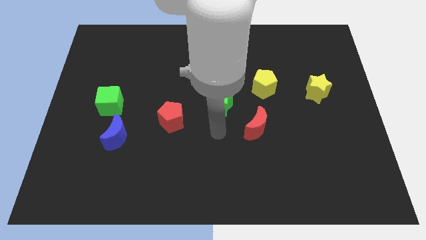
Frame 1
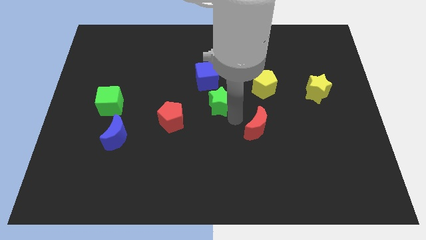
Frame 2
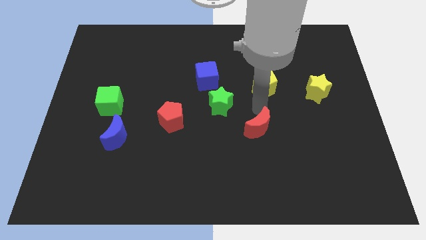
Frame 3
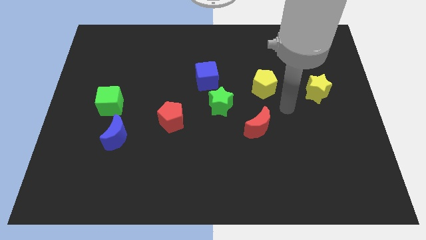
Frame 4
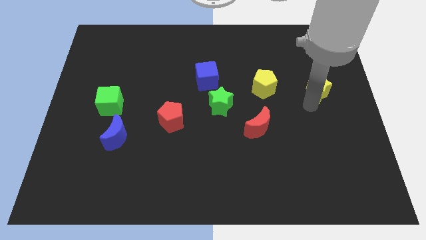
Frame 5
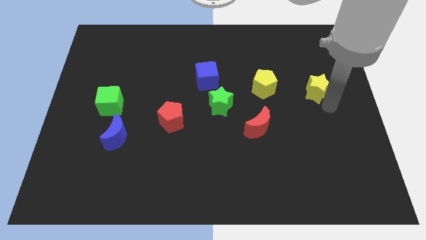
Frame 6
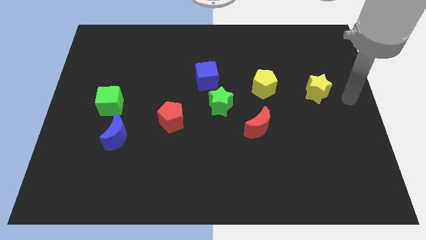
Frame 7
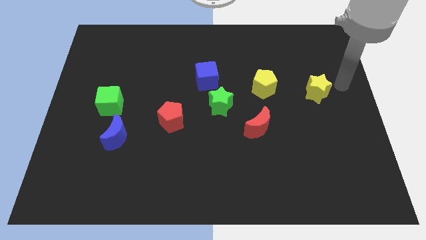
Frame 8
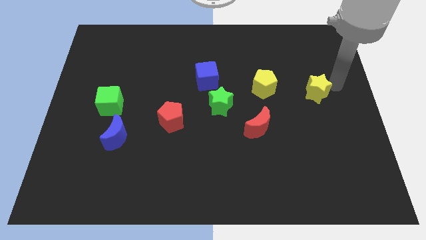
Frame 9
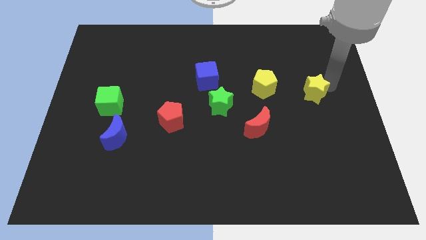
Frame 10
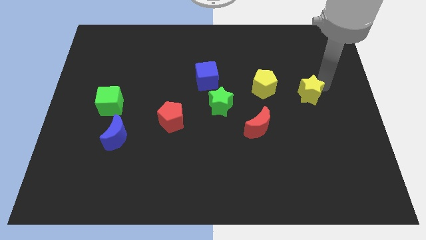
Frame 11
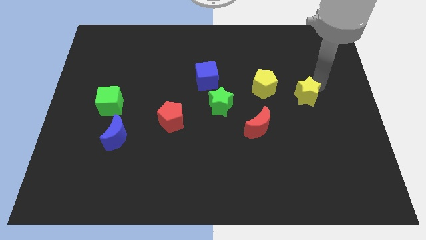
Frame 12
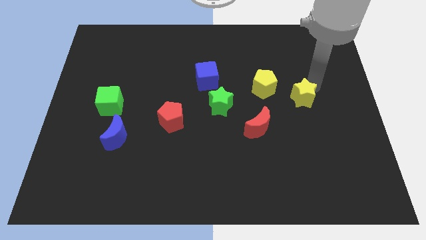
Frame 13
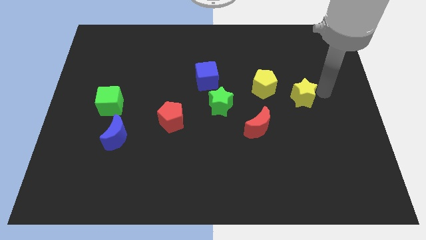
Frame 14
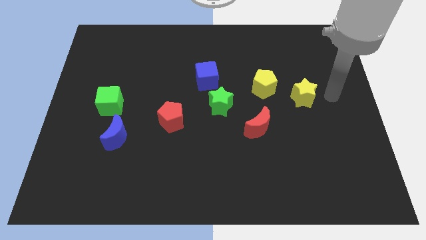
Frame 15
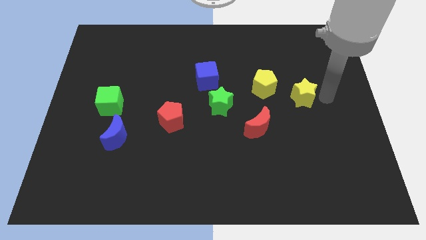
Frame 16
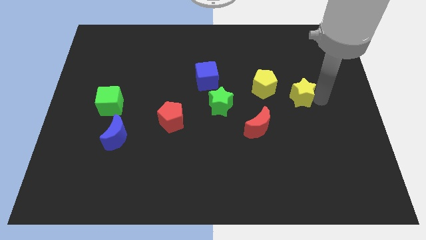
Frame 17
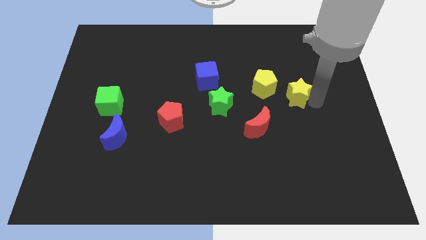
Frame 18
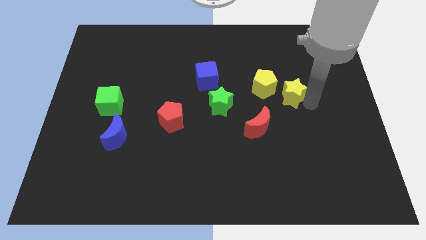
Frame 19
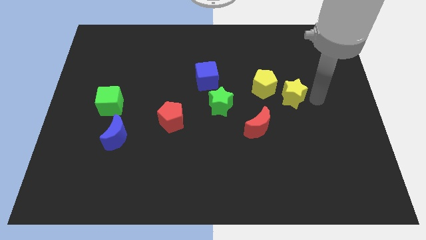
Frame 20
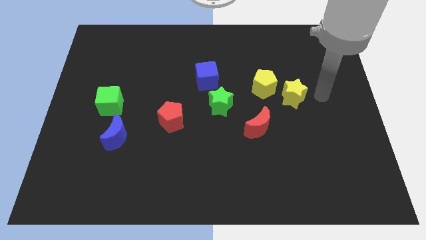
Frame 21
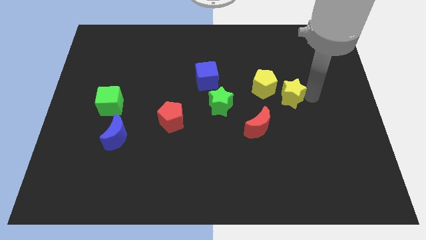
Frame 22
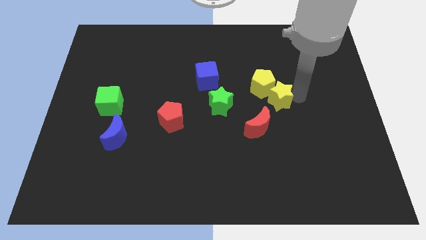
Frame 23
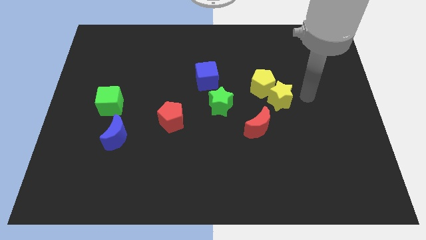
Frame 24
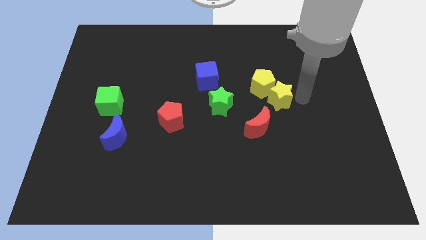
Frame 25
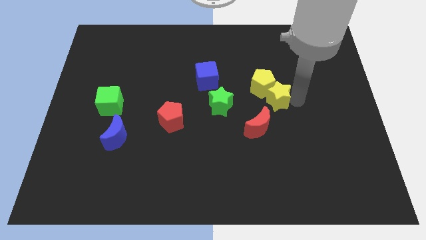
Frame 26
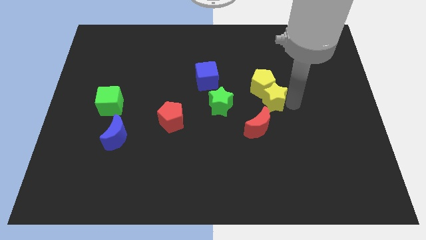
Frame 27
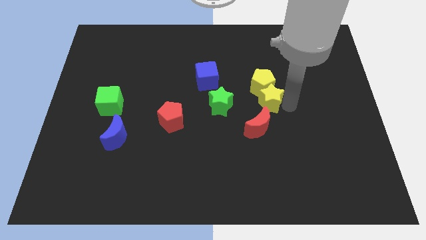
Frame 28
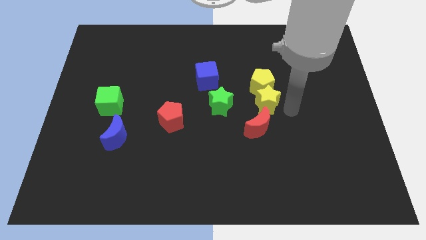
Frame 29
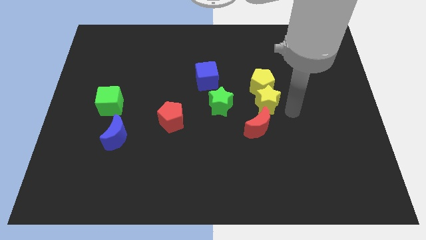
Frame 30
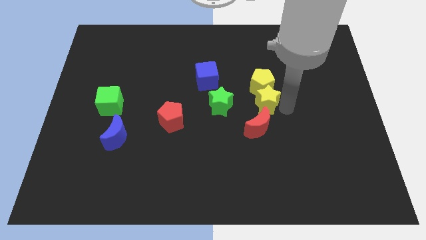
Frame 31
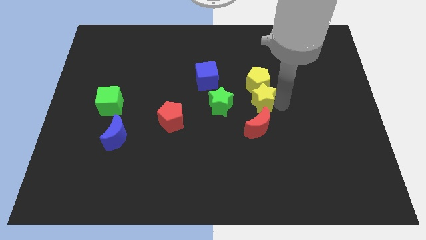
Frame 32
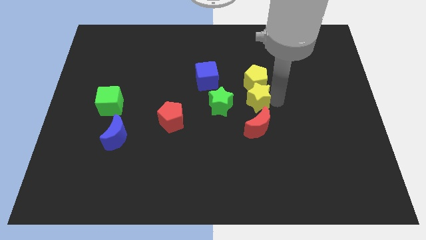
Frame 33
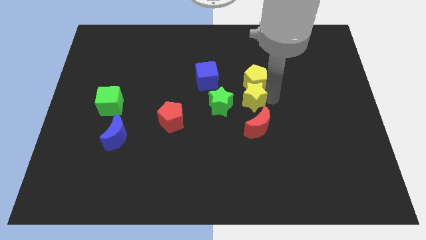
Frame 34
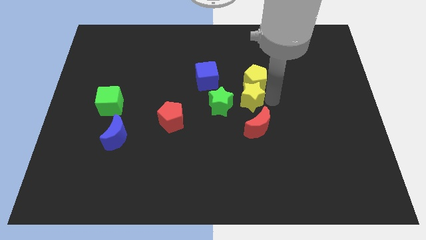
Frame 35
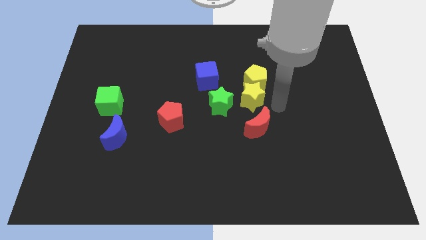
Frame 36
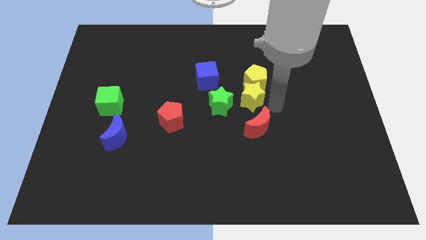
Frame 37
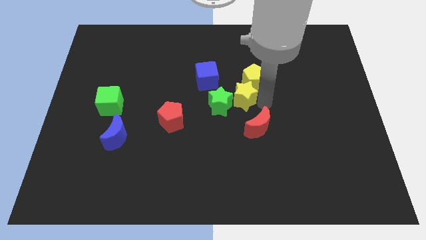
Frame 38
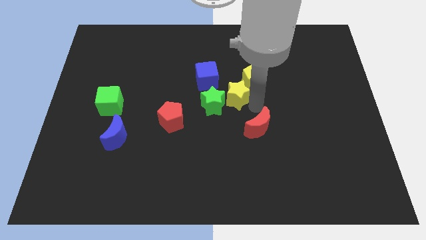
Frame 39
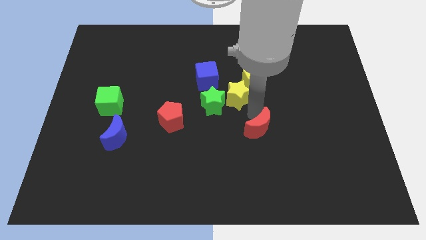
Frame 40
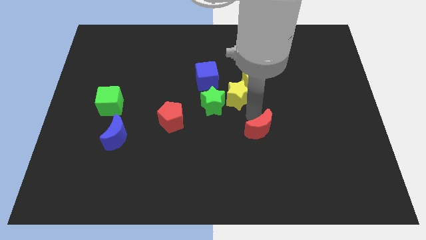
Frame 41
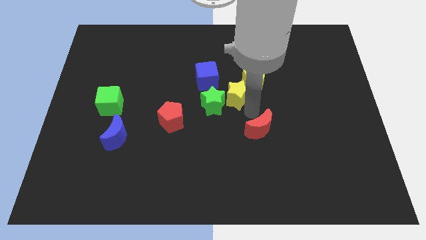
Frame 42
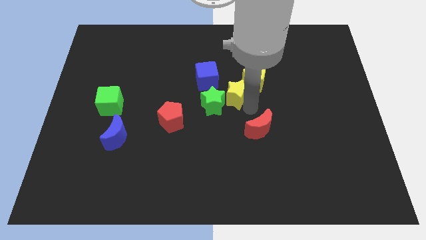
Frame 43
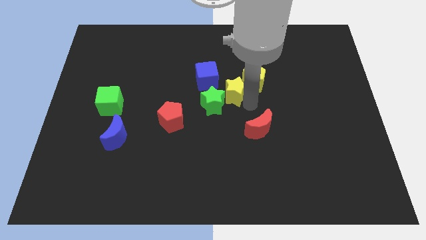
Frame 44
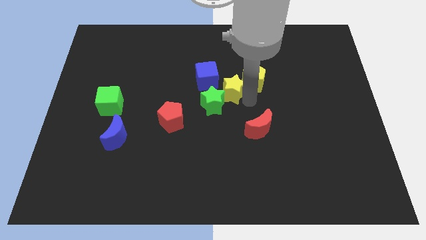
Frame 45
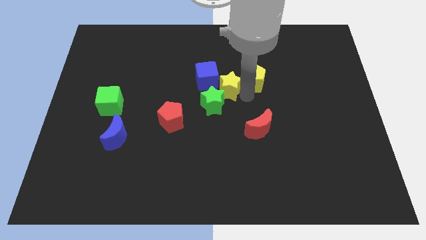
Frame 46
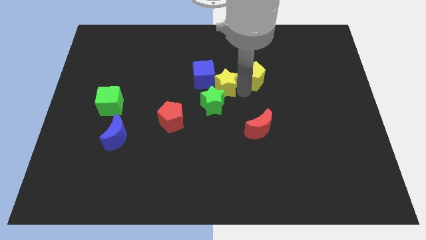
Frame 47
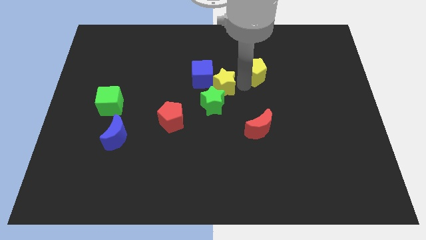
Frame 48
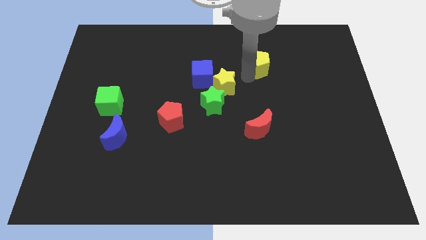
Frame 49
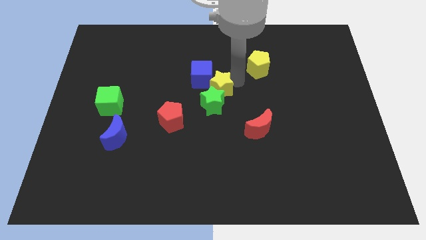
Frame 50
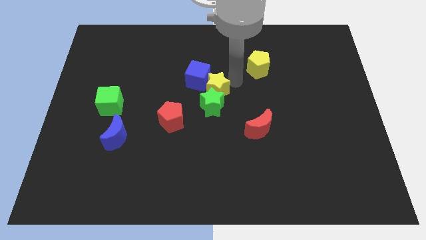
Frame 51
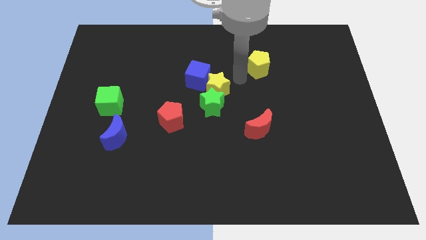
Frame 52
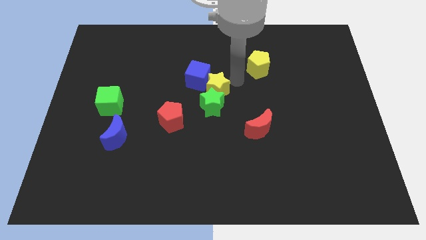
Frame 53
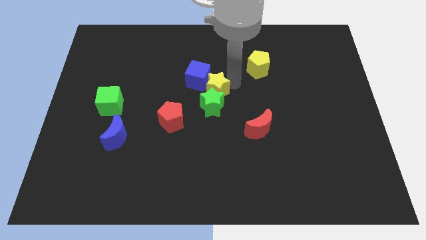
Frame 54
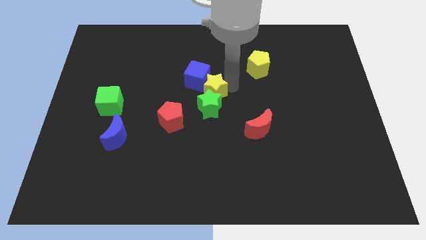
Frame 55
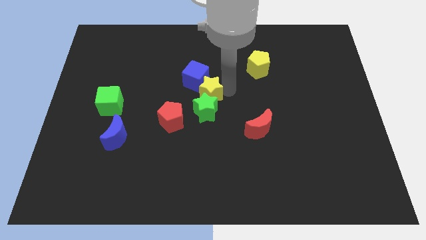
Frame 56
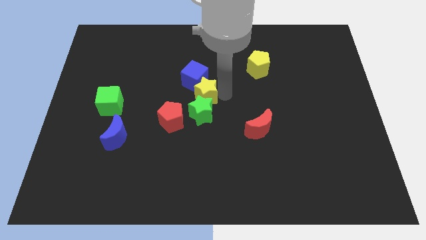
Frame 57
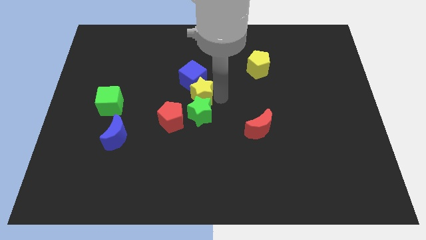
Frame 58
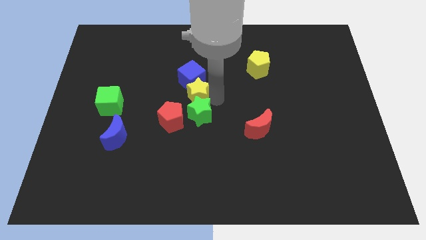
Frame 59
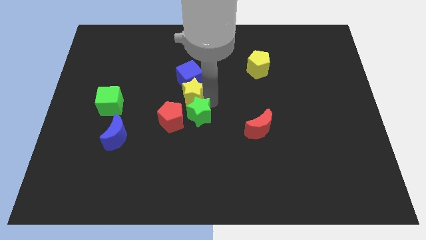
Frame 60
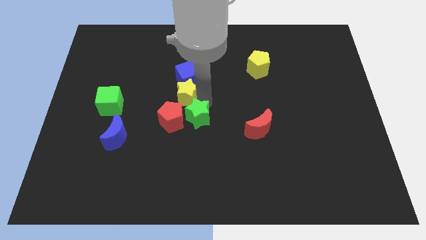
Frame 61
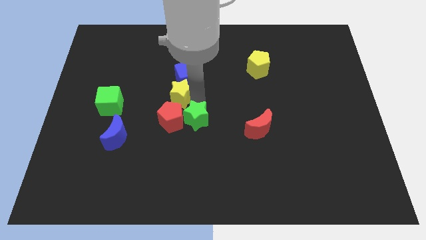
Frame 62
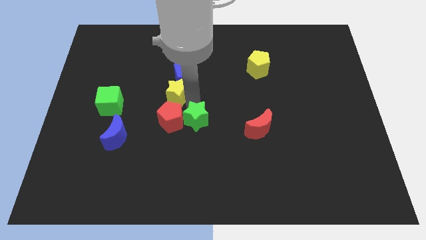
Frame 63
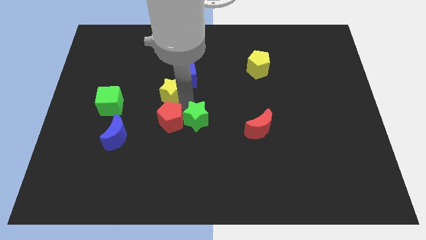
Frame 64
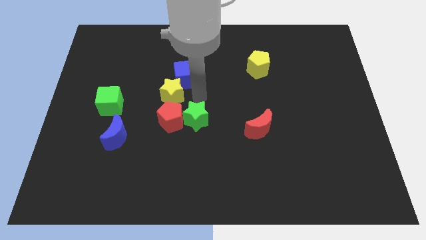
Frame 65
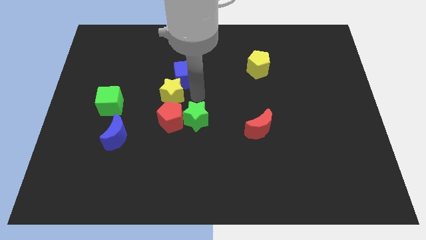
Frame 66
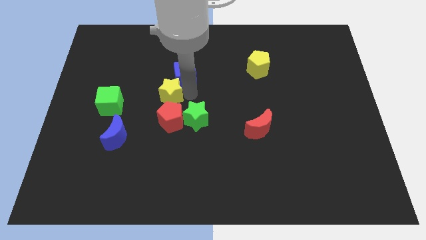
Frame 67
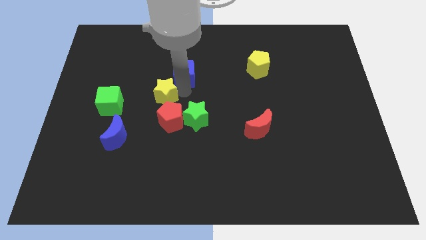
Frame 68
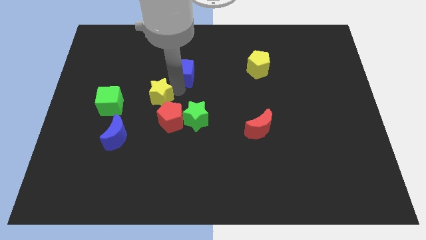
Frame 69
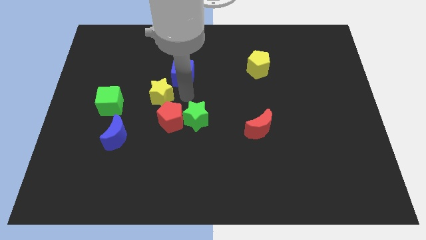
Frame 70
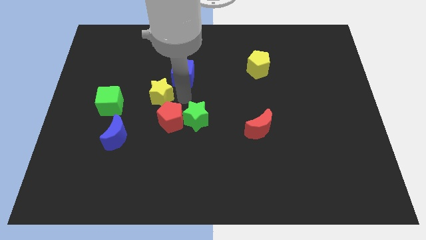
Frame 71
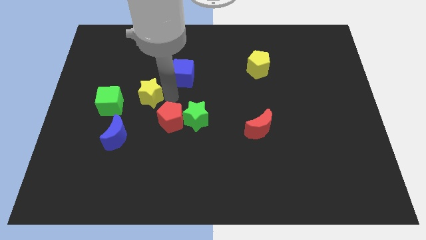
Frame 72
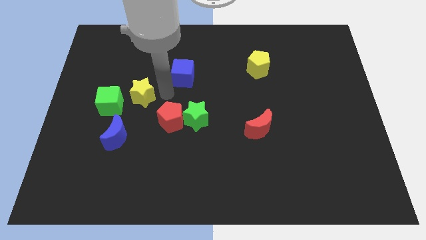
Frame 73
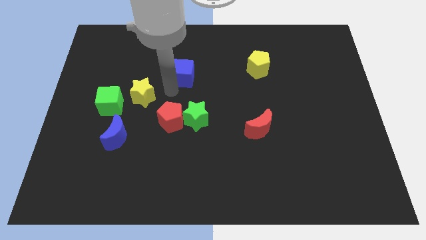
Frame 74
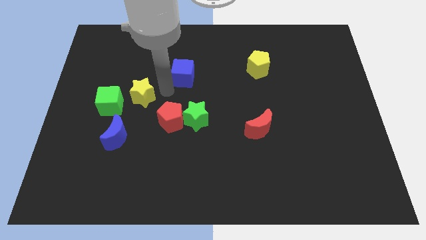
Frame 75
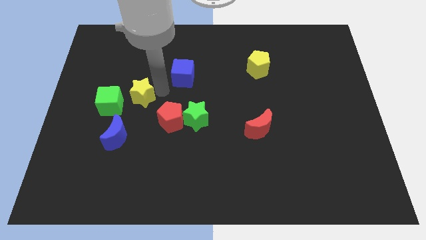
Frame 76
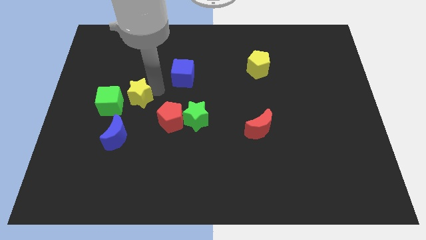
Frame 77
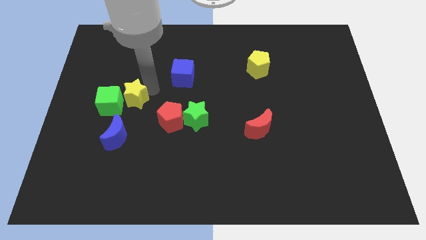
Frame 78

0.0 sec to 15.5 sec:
slide the yellow star next to the green cube
